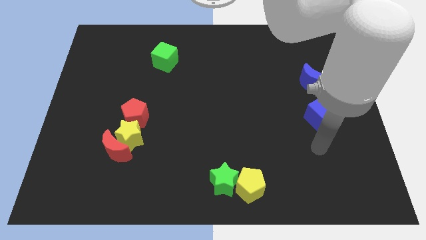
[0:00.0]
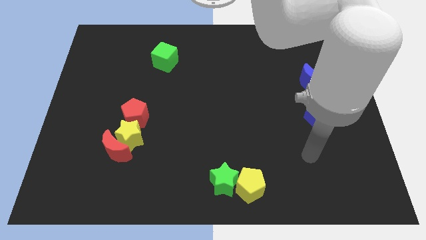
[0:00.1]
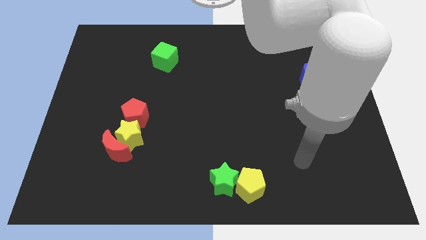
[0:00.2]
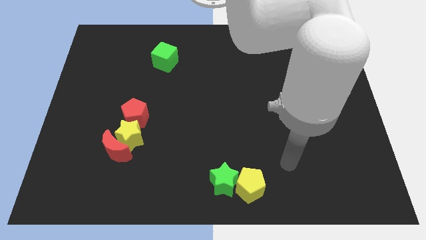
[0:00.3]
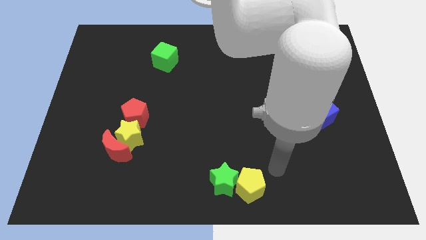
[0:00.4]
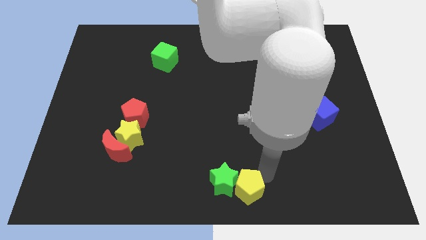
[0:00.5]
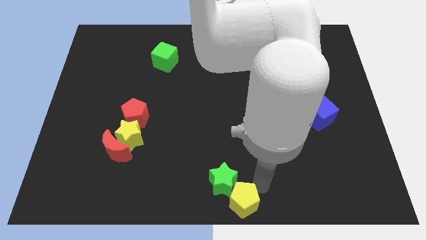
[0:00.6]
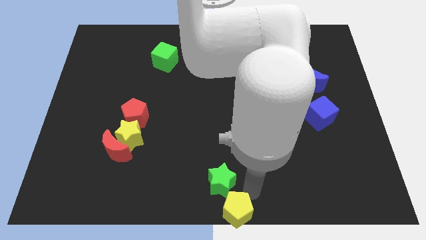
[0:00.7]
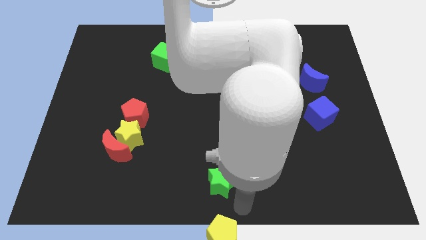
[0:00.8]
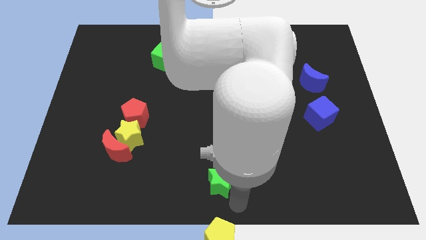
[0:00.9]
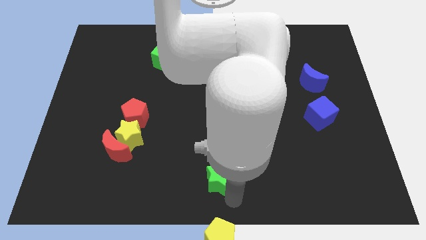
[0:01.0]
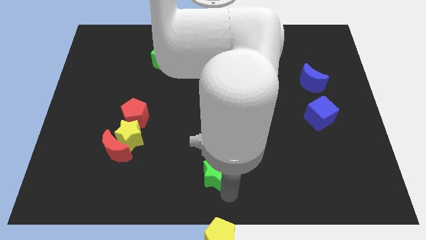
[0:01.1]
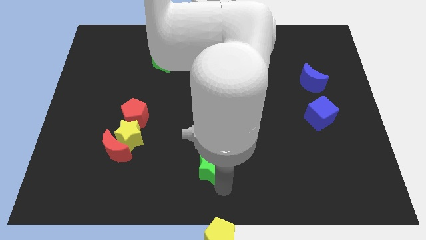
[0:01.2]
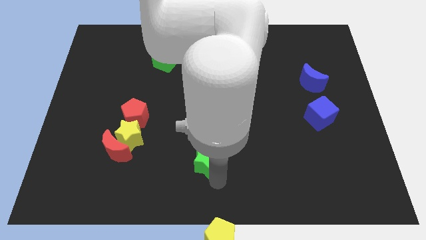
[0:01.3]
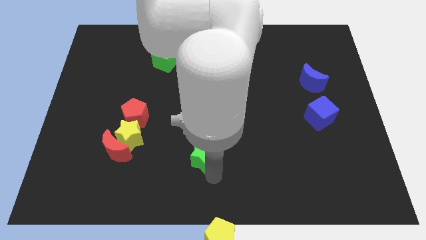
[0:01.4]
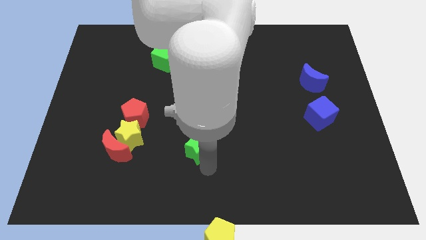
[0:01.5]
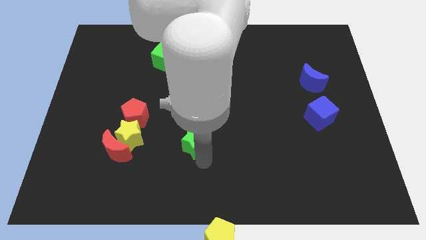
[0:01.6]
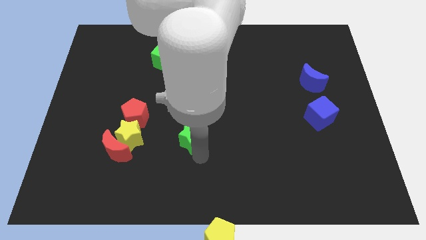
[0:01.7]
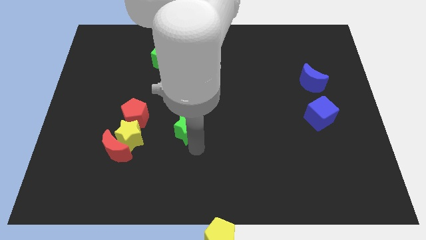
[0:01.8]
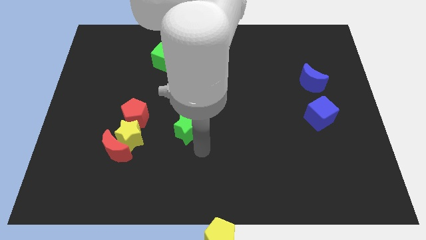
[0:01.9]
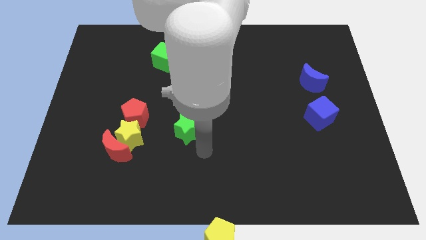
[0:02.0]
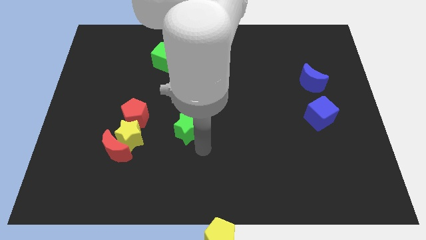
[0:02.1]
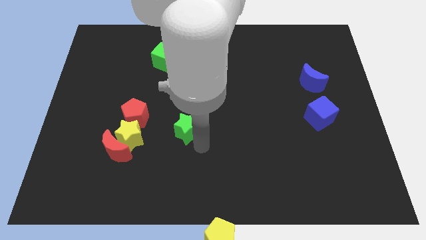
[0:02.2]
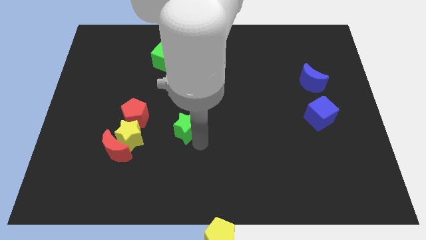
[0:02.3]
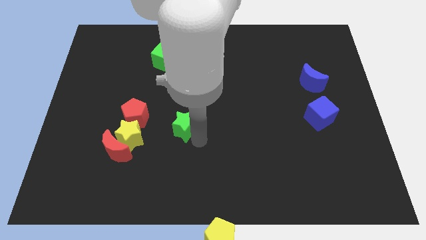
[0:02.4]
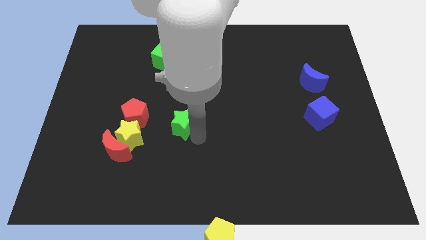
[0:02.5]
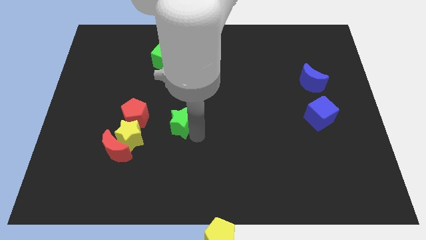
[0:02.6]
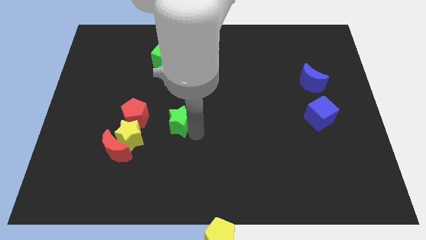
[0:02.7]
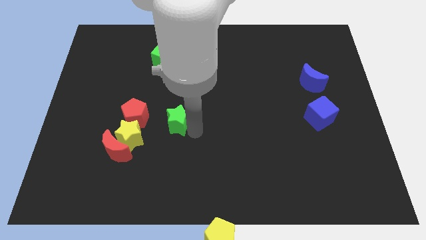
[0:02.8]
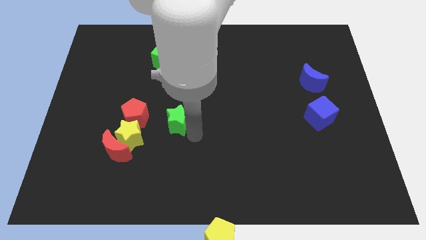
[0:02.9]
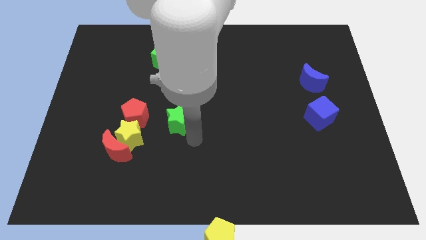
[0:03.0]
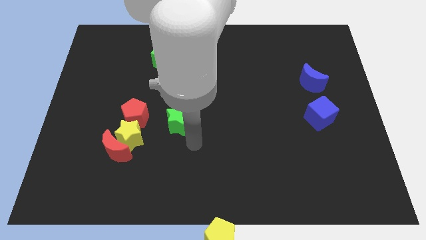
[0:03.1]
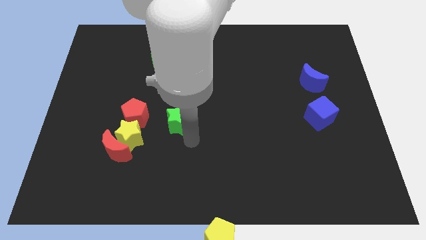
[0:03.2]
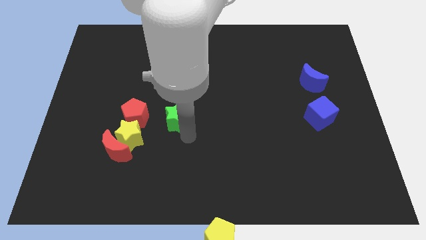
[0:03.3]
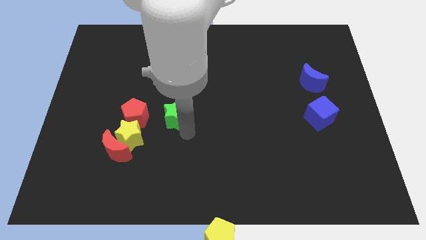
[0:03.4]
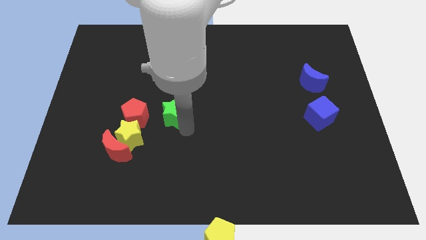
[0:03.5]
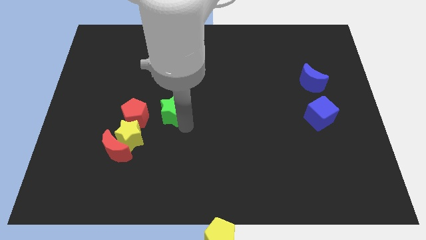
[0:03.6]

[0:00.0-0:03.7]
move the green star diagonally upwards and to the left

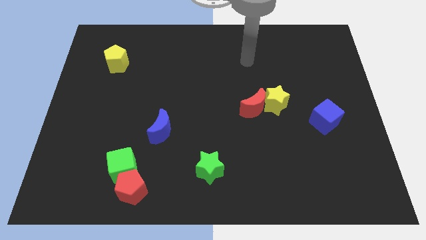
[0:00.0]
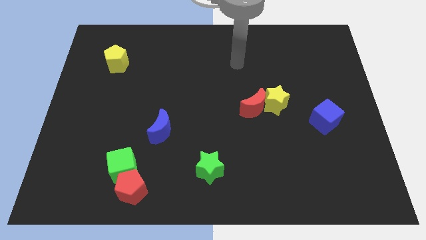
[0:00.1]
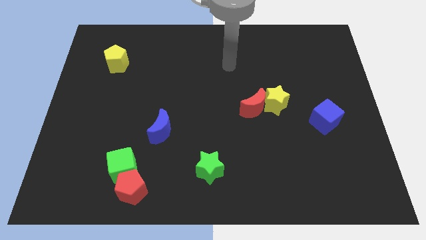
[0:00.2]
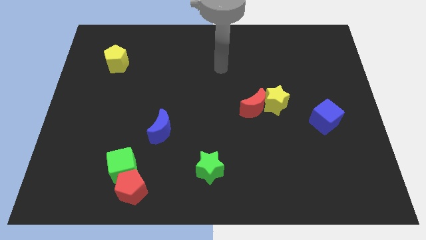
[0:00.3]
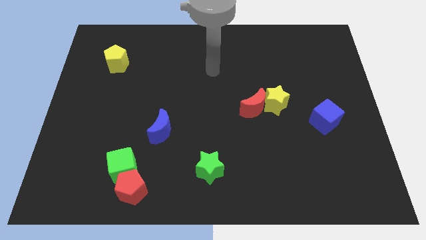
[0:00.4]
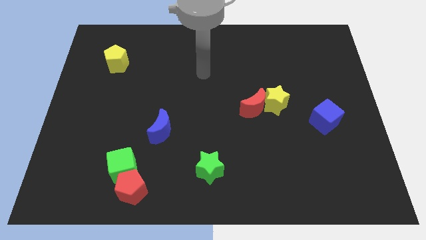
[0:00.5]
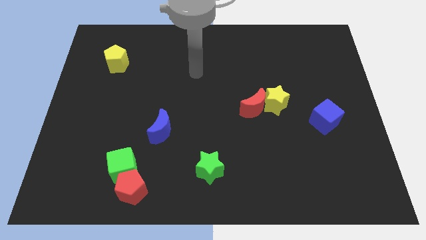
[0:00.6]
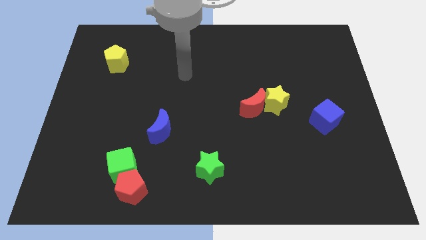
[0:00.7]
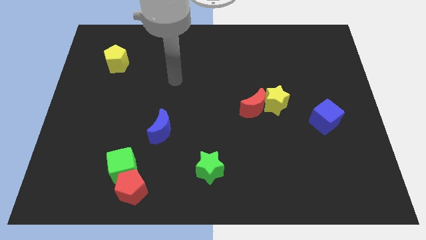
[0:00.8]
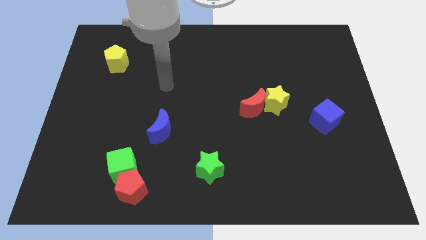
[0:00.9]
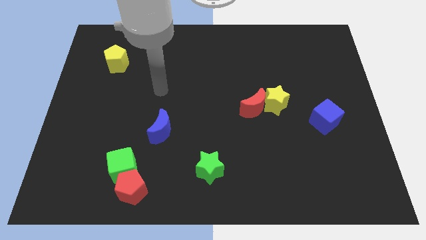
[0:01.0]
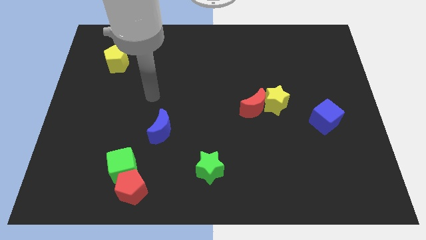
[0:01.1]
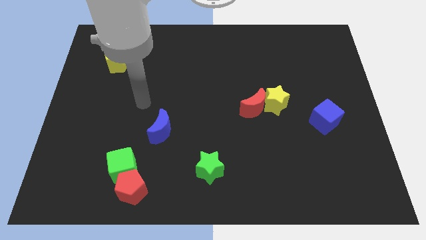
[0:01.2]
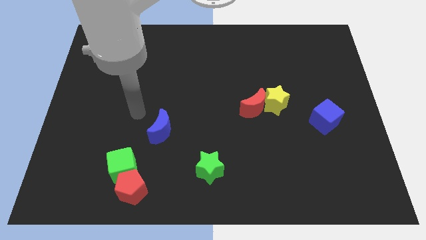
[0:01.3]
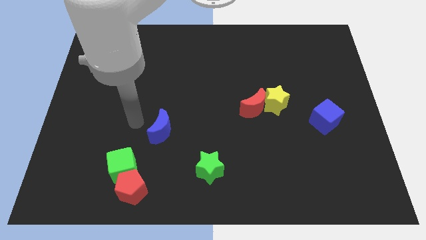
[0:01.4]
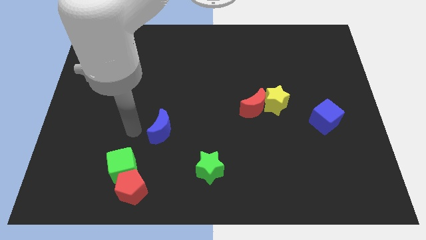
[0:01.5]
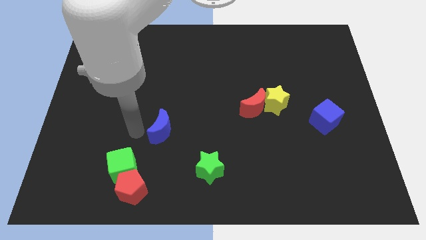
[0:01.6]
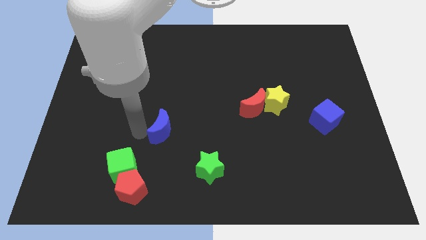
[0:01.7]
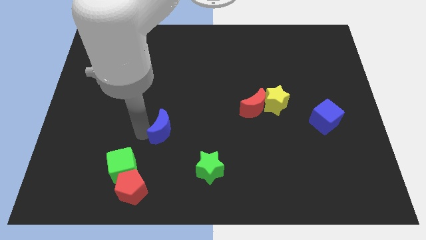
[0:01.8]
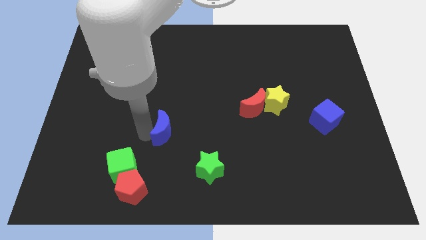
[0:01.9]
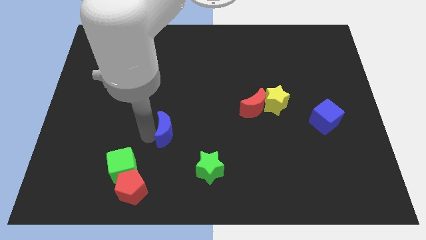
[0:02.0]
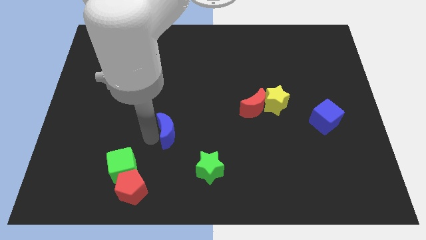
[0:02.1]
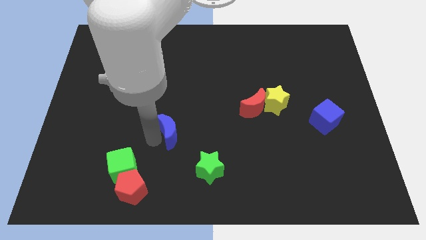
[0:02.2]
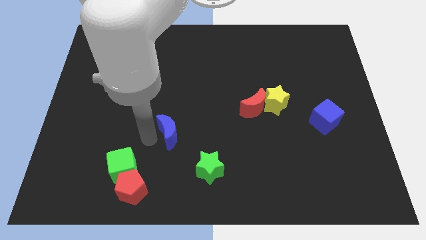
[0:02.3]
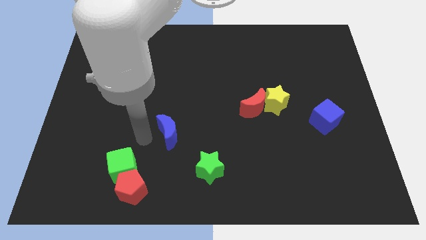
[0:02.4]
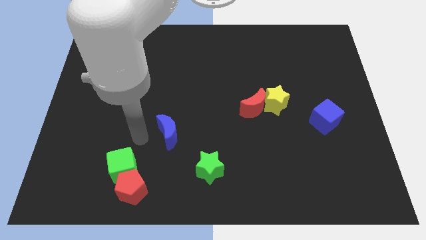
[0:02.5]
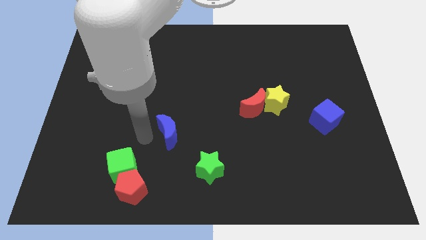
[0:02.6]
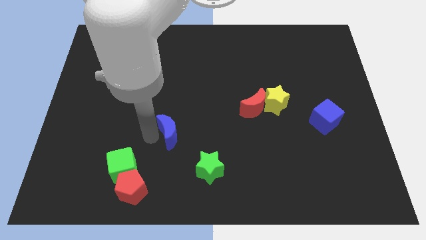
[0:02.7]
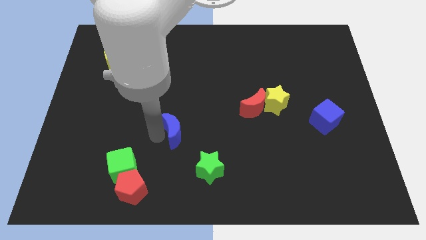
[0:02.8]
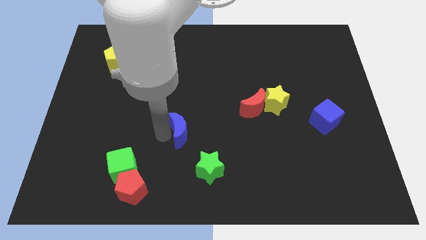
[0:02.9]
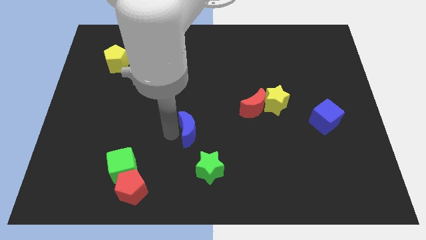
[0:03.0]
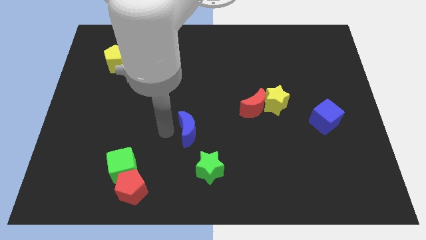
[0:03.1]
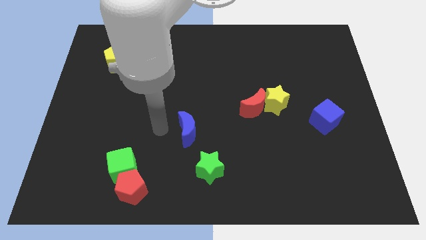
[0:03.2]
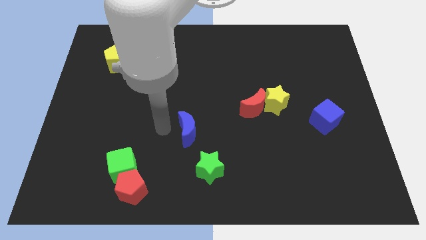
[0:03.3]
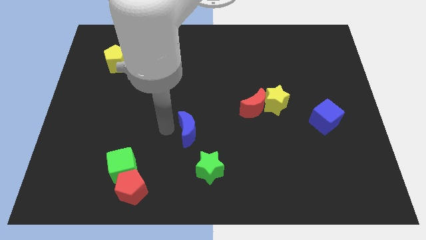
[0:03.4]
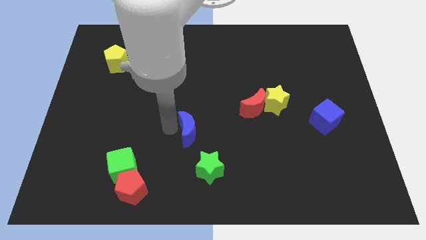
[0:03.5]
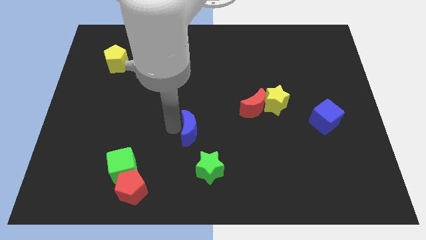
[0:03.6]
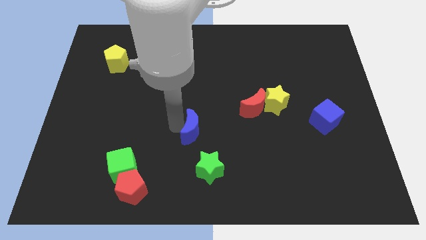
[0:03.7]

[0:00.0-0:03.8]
push the blue moon right a bit

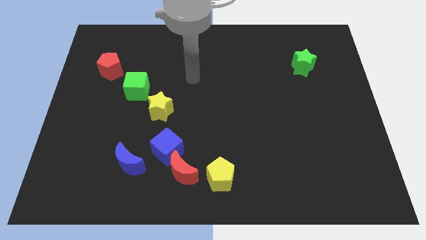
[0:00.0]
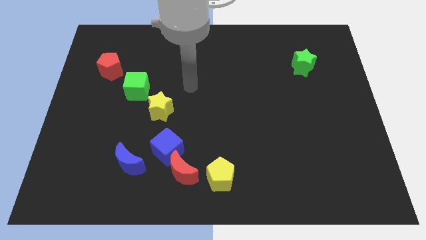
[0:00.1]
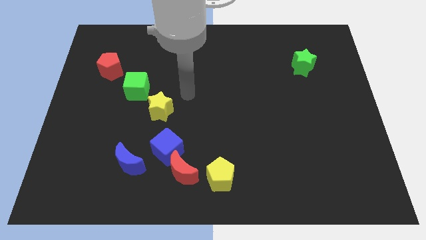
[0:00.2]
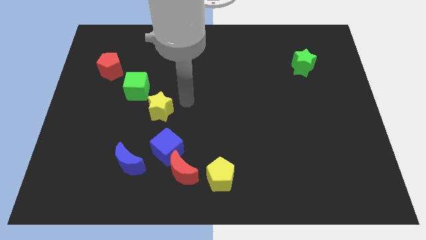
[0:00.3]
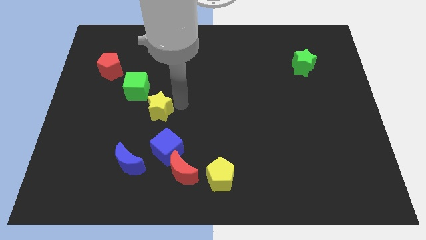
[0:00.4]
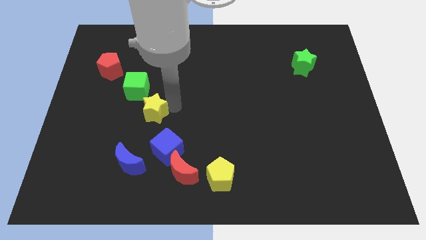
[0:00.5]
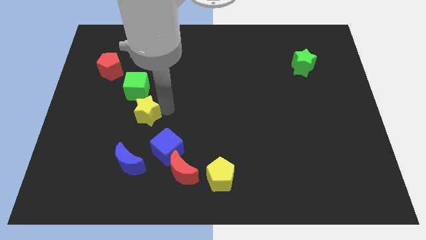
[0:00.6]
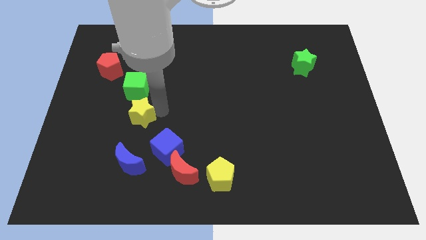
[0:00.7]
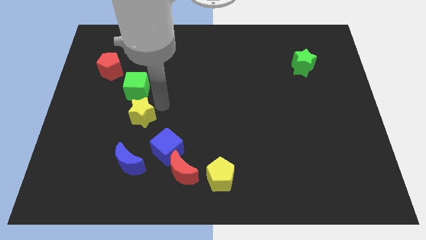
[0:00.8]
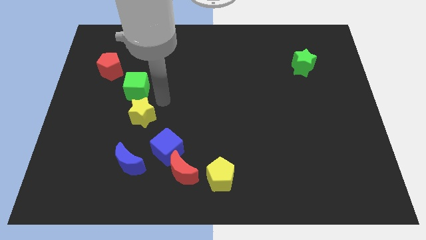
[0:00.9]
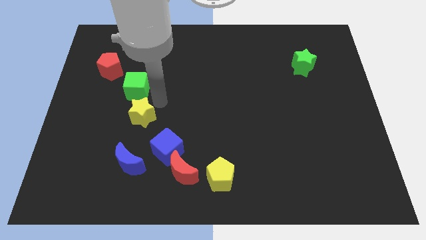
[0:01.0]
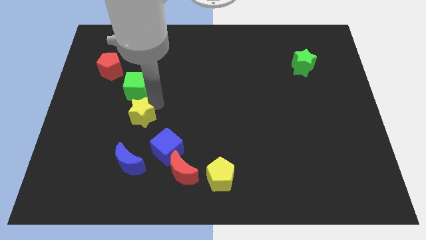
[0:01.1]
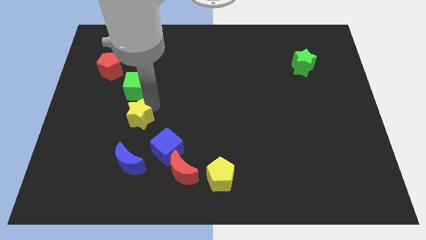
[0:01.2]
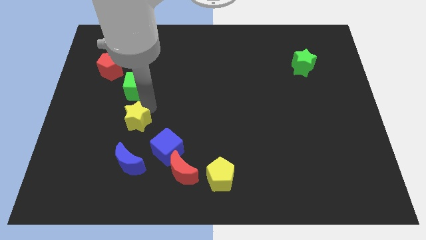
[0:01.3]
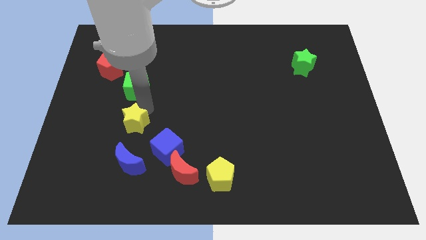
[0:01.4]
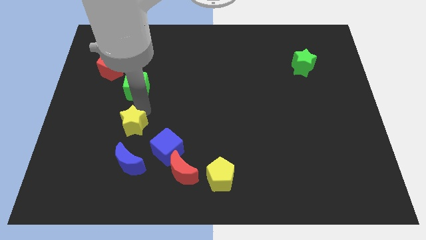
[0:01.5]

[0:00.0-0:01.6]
slightly push the yellow star down and left
